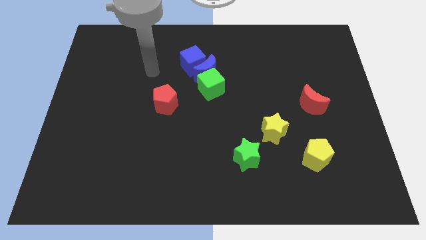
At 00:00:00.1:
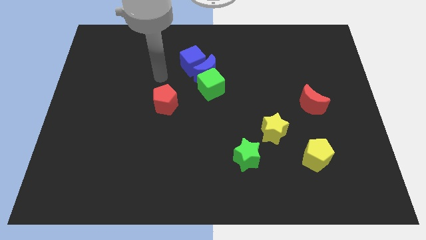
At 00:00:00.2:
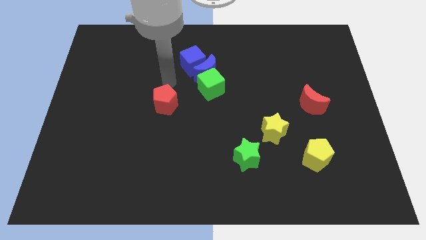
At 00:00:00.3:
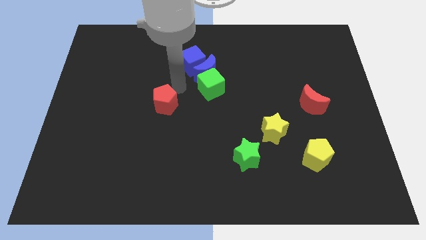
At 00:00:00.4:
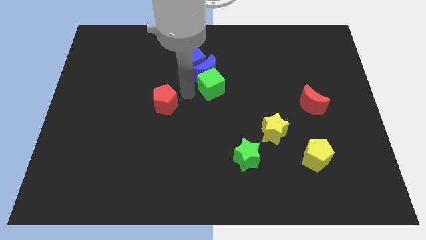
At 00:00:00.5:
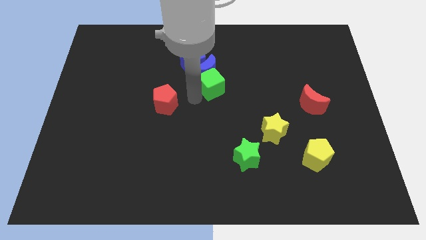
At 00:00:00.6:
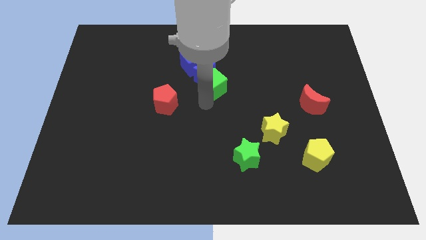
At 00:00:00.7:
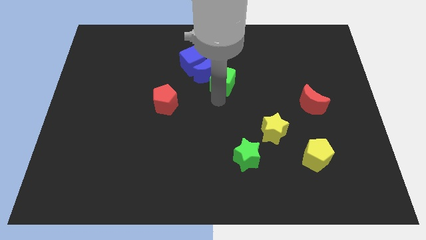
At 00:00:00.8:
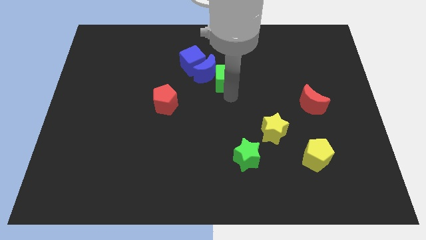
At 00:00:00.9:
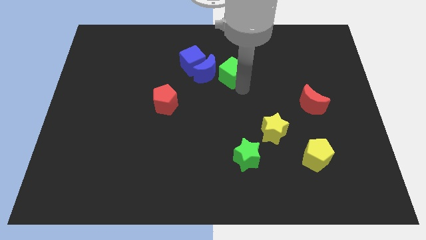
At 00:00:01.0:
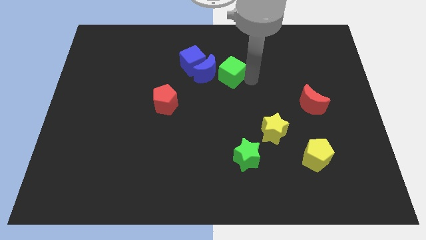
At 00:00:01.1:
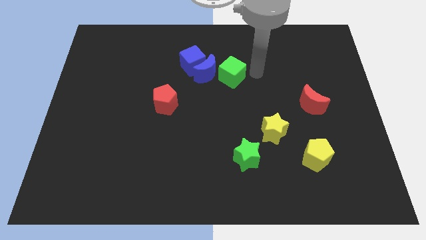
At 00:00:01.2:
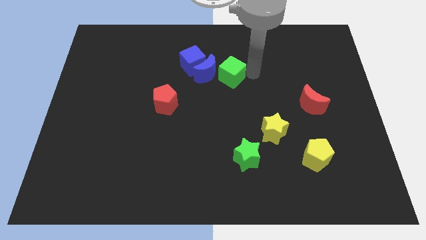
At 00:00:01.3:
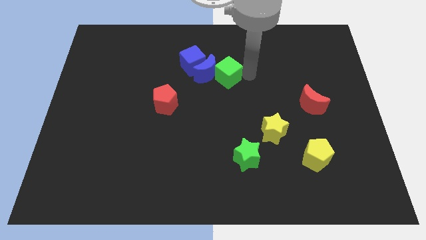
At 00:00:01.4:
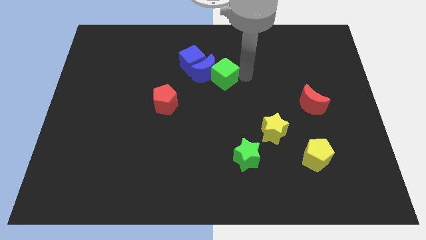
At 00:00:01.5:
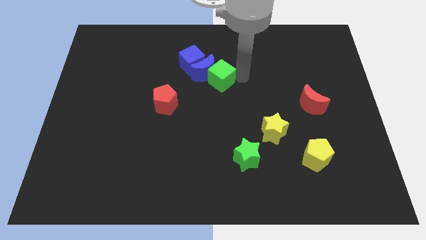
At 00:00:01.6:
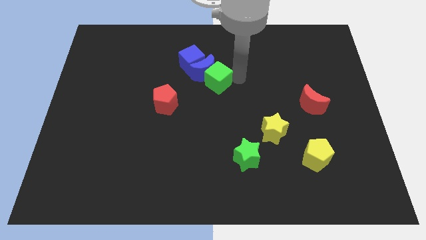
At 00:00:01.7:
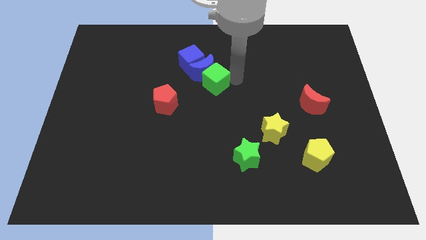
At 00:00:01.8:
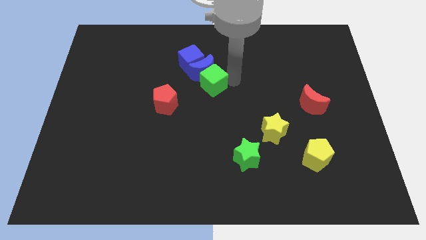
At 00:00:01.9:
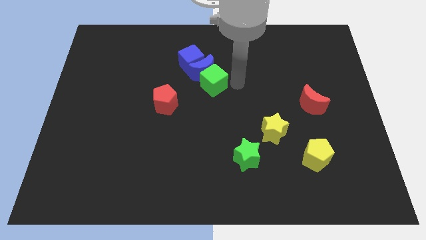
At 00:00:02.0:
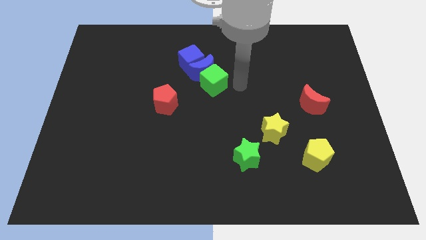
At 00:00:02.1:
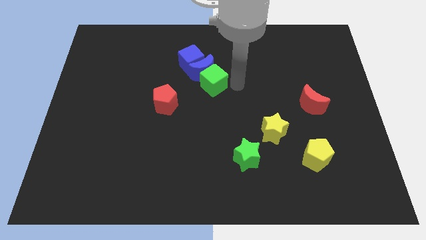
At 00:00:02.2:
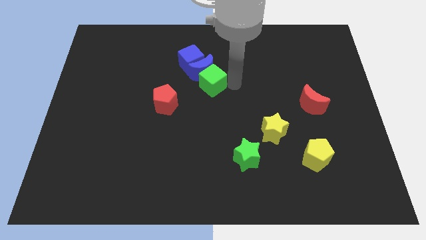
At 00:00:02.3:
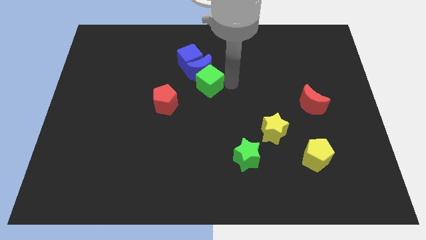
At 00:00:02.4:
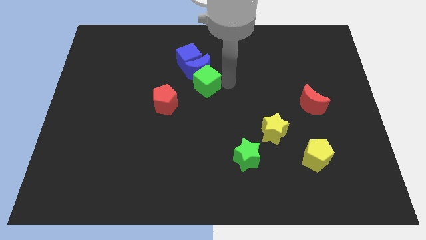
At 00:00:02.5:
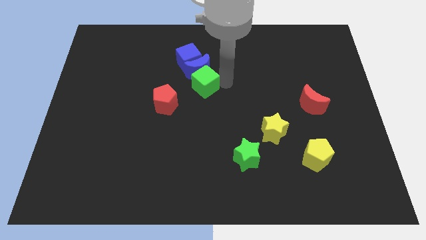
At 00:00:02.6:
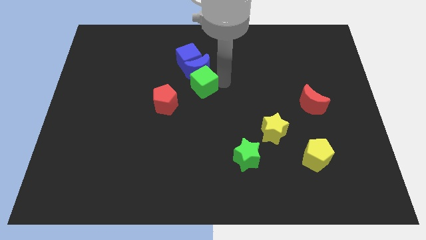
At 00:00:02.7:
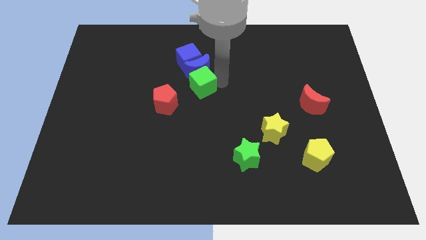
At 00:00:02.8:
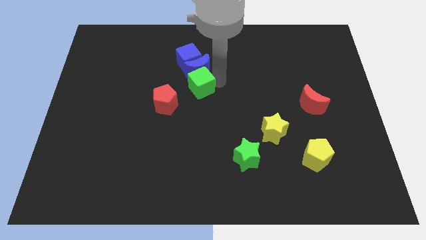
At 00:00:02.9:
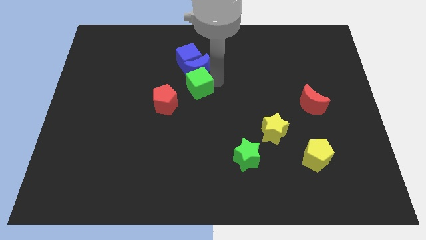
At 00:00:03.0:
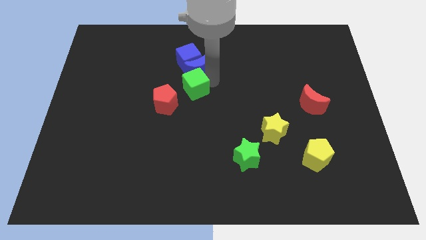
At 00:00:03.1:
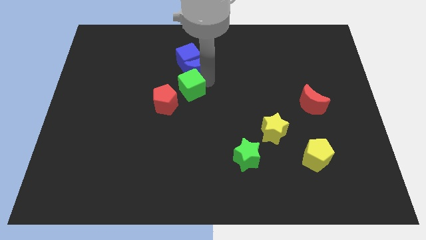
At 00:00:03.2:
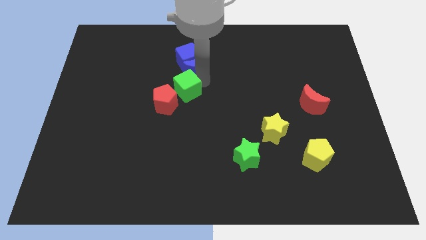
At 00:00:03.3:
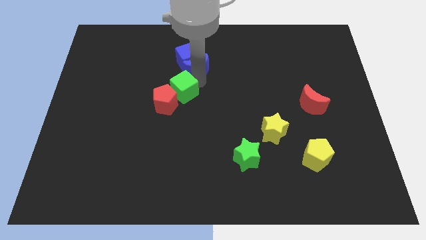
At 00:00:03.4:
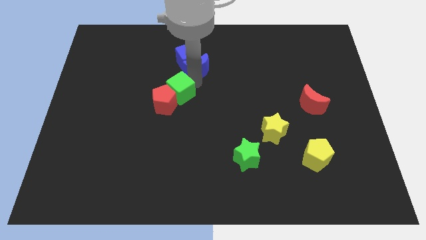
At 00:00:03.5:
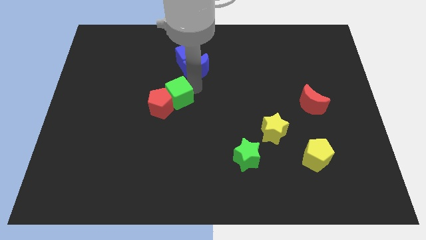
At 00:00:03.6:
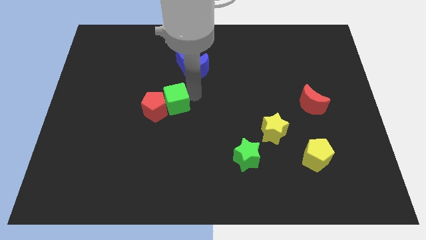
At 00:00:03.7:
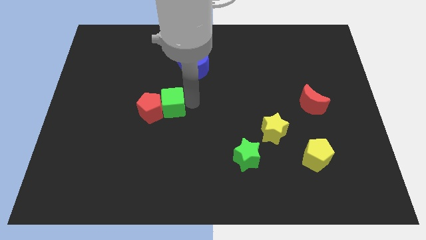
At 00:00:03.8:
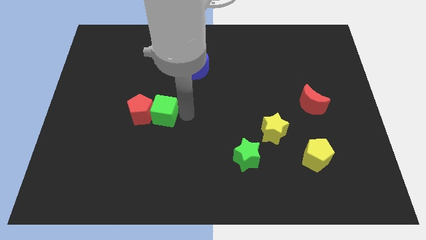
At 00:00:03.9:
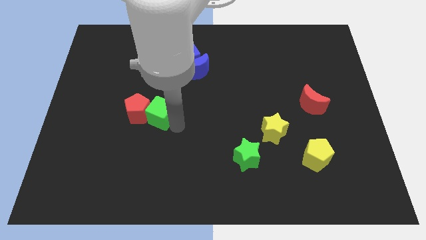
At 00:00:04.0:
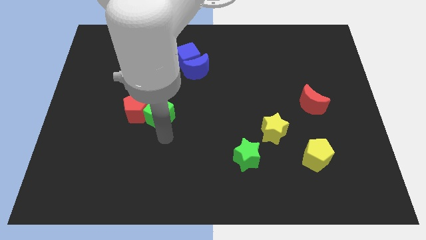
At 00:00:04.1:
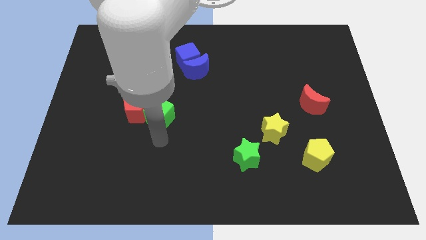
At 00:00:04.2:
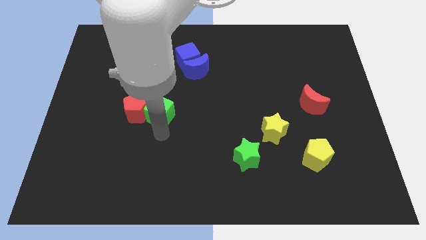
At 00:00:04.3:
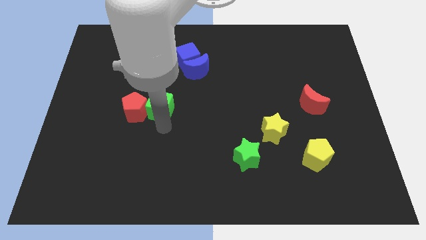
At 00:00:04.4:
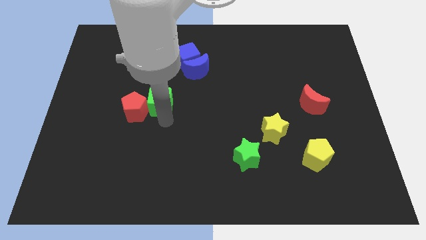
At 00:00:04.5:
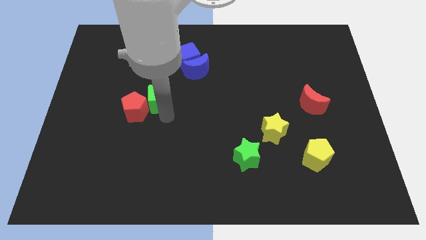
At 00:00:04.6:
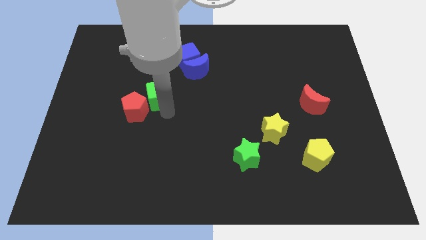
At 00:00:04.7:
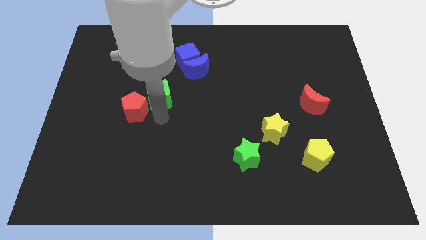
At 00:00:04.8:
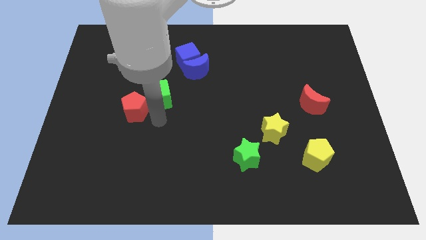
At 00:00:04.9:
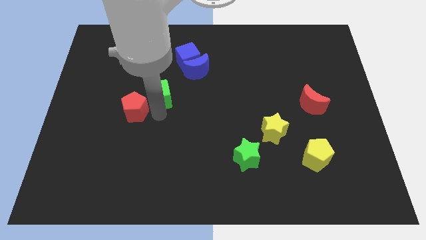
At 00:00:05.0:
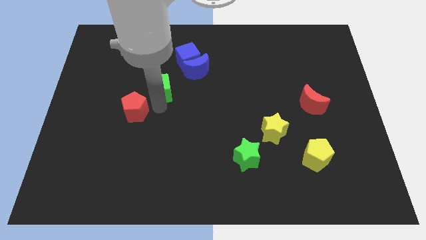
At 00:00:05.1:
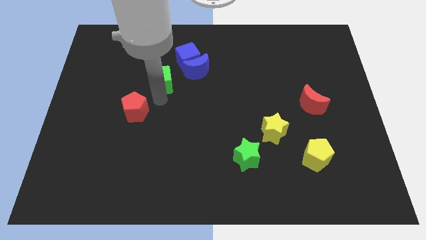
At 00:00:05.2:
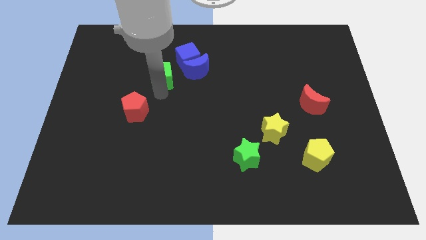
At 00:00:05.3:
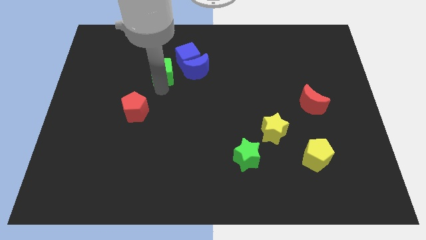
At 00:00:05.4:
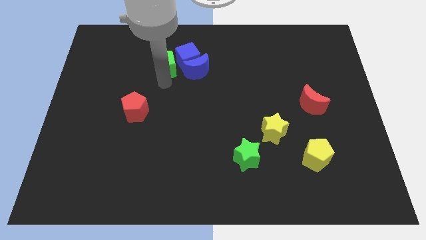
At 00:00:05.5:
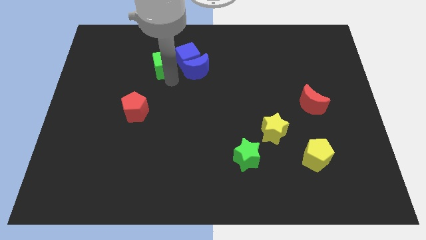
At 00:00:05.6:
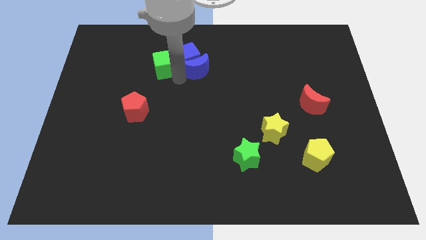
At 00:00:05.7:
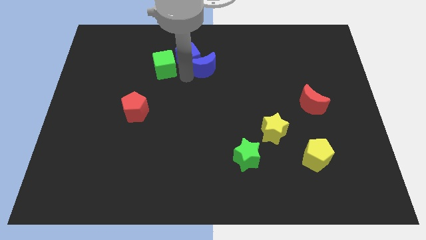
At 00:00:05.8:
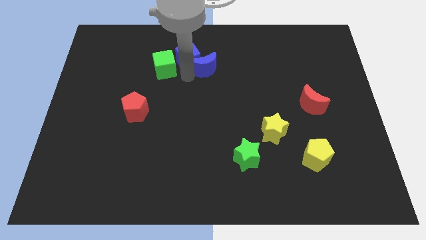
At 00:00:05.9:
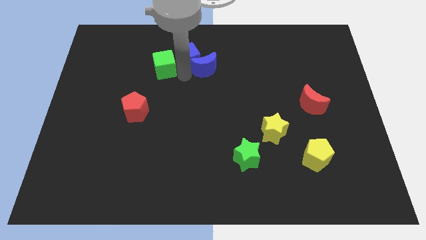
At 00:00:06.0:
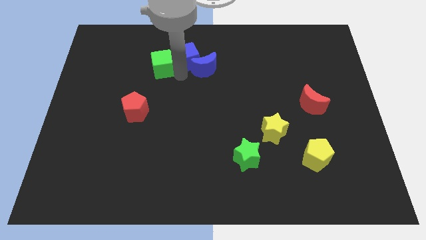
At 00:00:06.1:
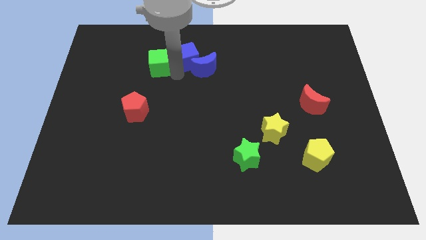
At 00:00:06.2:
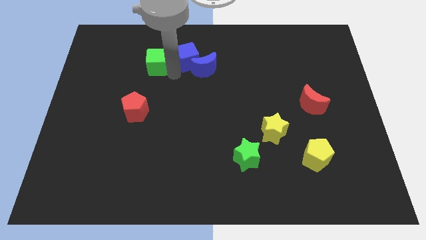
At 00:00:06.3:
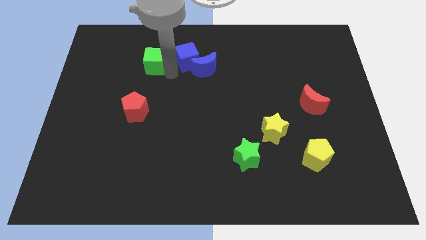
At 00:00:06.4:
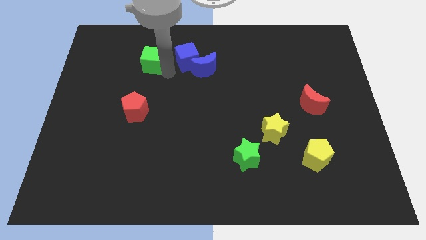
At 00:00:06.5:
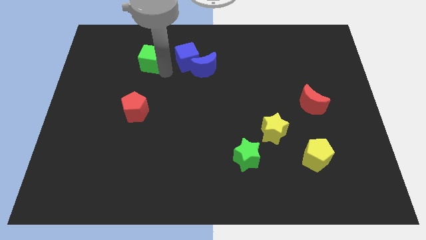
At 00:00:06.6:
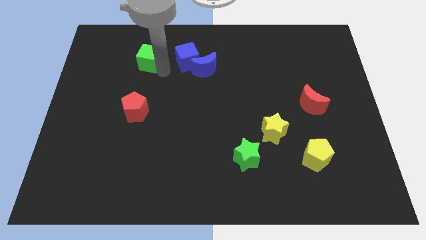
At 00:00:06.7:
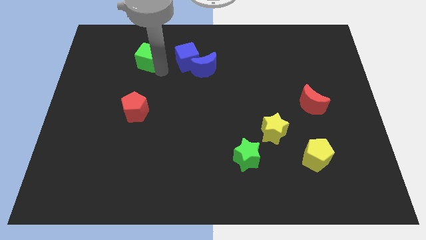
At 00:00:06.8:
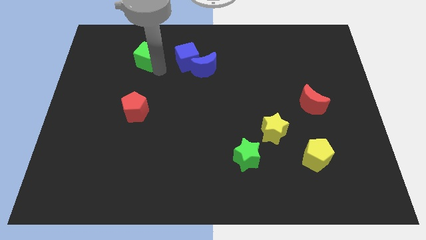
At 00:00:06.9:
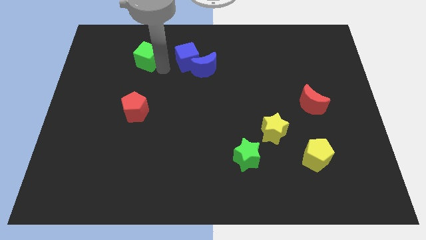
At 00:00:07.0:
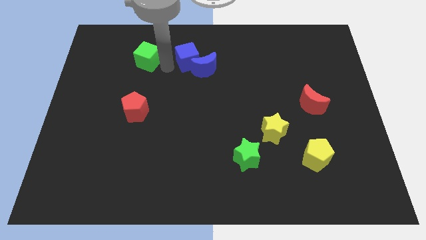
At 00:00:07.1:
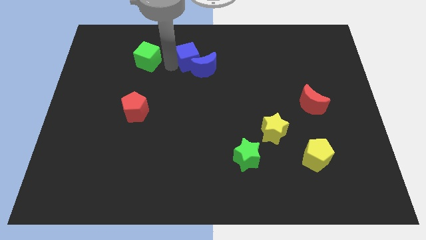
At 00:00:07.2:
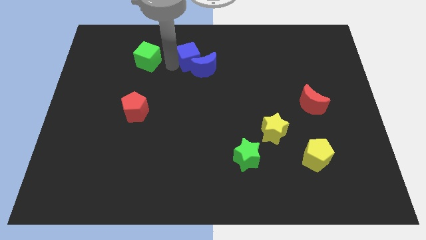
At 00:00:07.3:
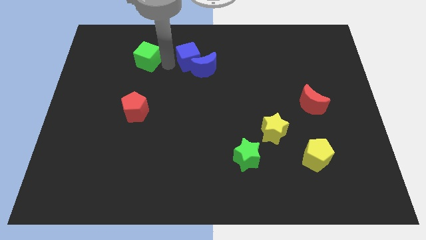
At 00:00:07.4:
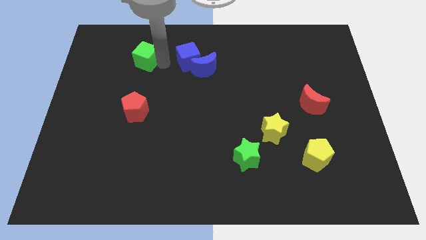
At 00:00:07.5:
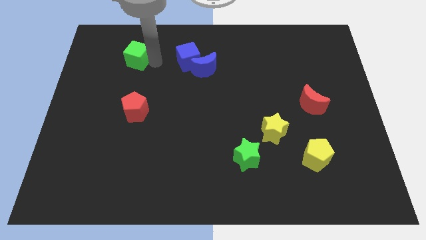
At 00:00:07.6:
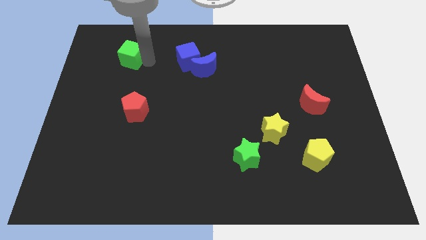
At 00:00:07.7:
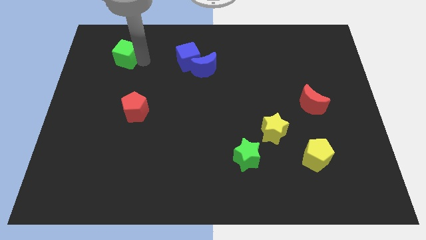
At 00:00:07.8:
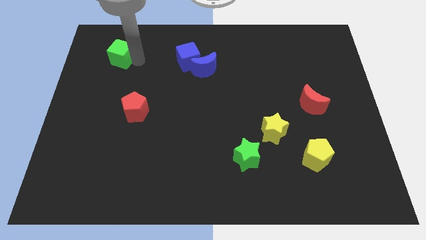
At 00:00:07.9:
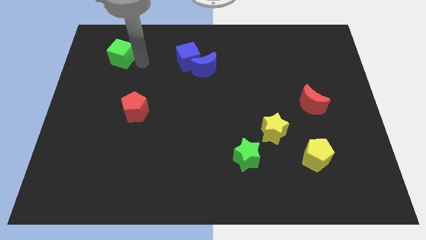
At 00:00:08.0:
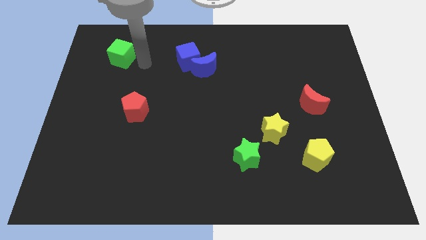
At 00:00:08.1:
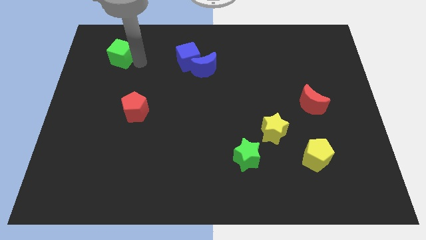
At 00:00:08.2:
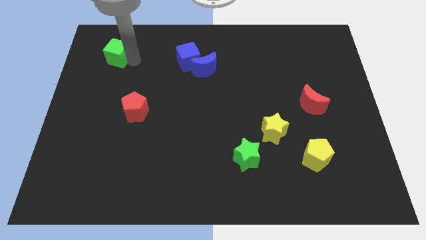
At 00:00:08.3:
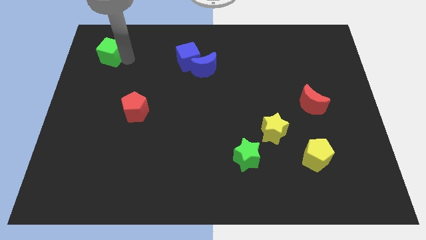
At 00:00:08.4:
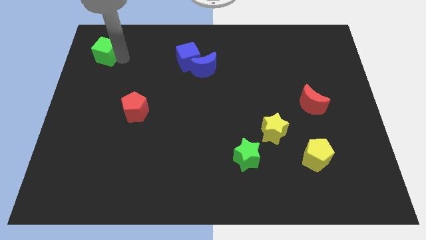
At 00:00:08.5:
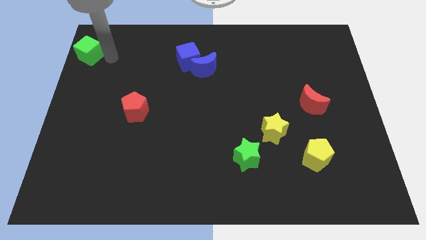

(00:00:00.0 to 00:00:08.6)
push the green cube to the top left corner
